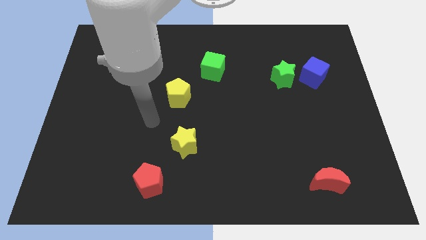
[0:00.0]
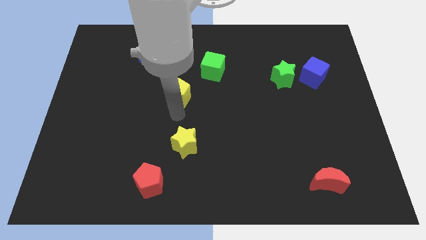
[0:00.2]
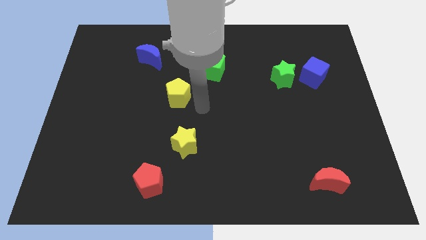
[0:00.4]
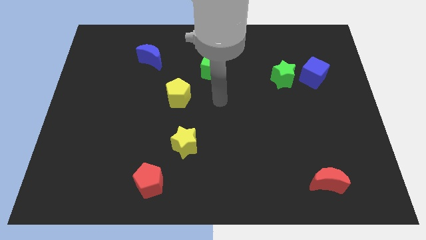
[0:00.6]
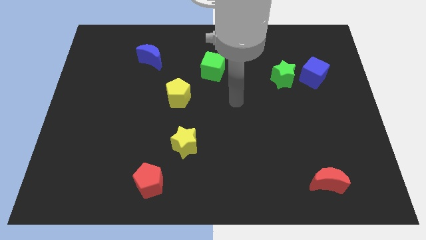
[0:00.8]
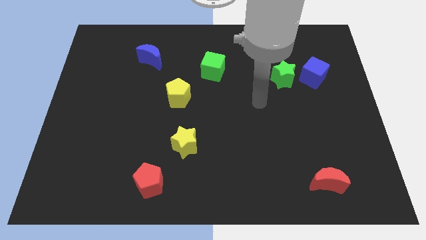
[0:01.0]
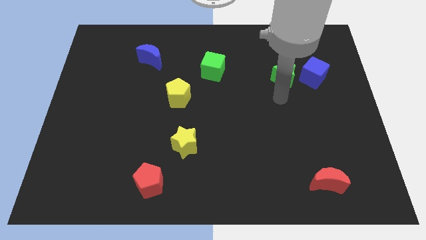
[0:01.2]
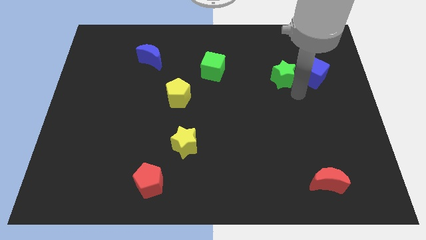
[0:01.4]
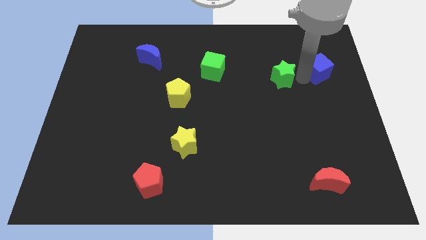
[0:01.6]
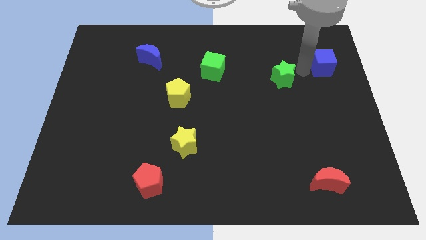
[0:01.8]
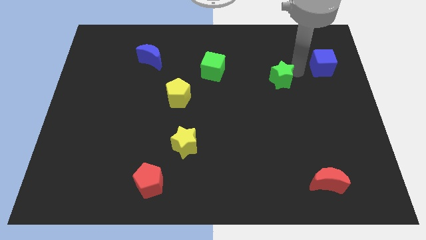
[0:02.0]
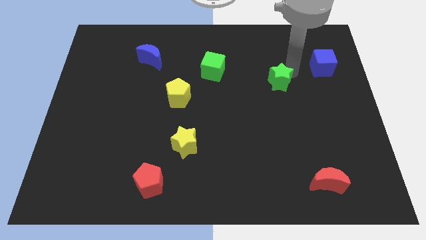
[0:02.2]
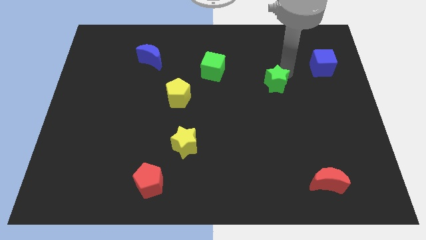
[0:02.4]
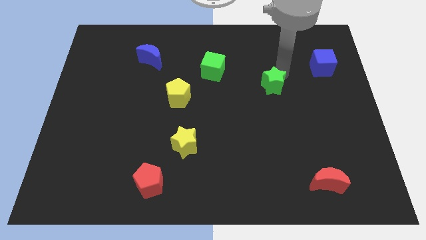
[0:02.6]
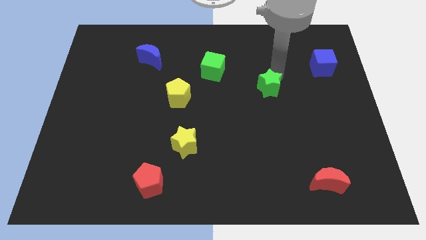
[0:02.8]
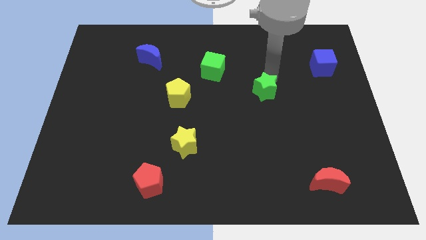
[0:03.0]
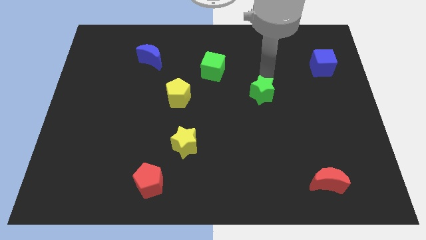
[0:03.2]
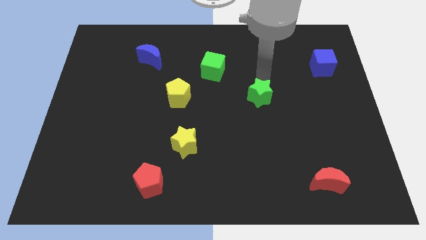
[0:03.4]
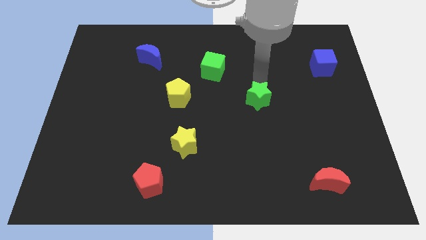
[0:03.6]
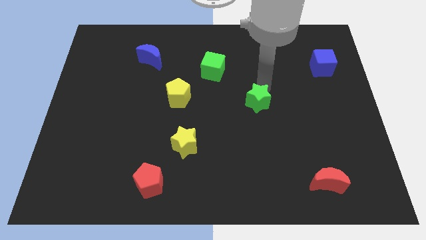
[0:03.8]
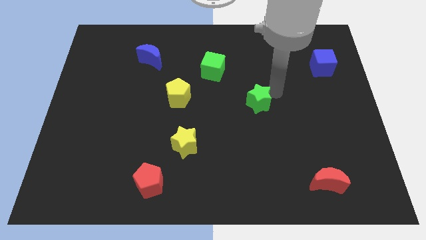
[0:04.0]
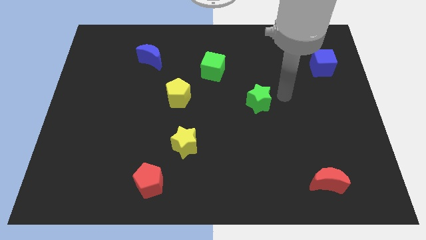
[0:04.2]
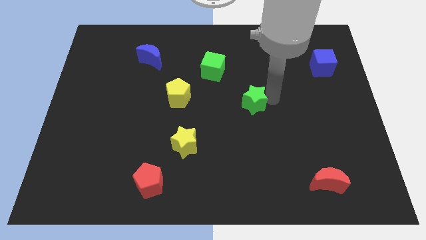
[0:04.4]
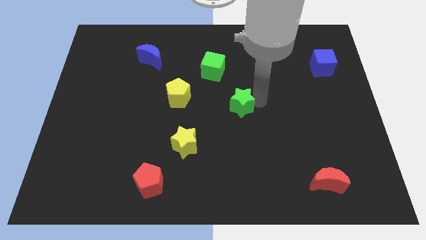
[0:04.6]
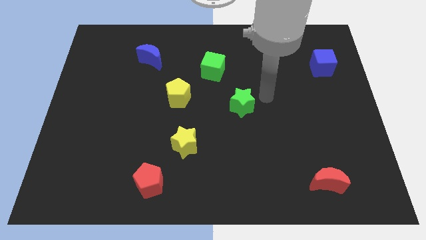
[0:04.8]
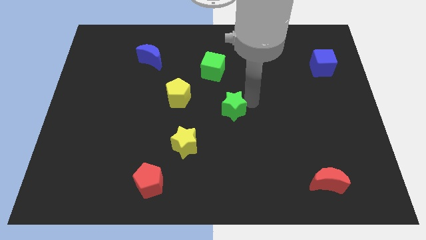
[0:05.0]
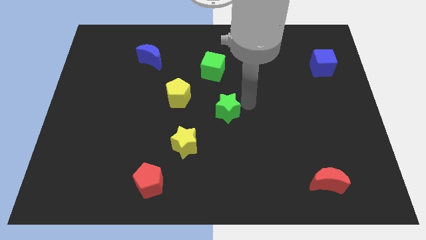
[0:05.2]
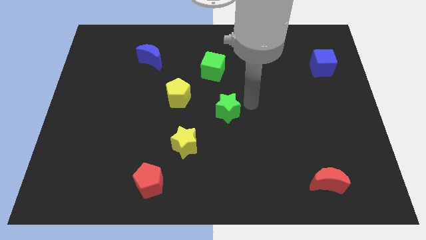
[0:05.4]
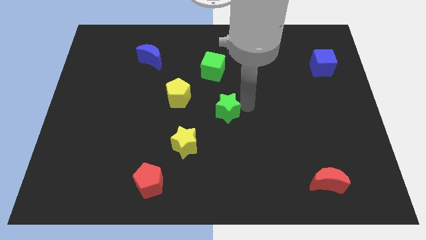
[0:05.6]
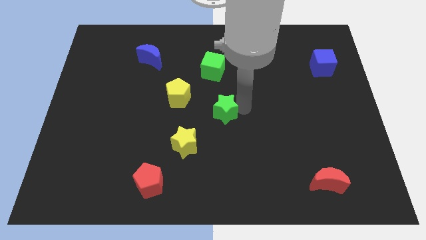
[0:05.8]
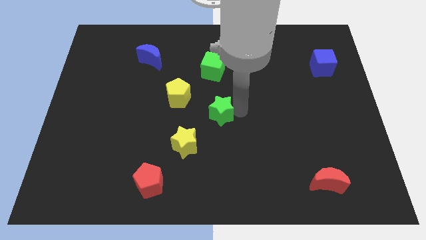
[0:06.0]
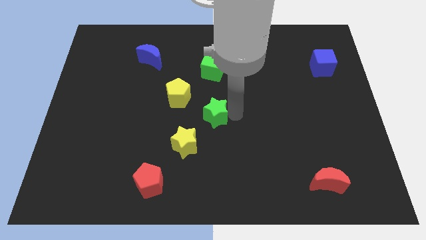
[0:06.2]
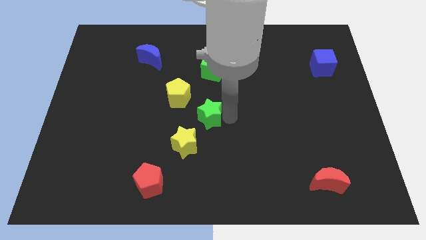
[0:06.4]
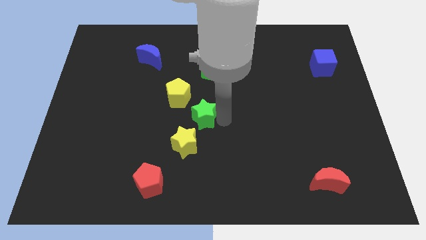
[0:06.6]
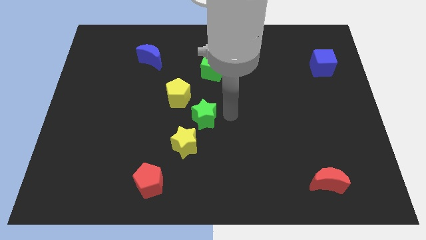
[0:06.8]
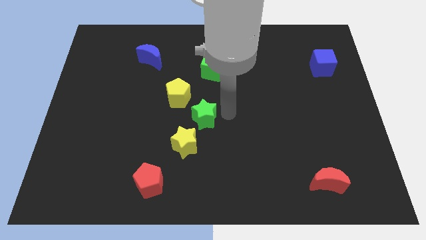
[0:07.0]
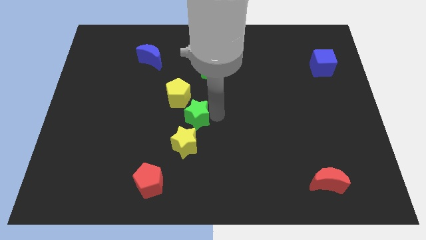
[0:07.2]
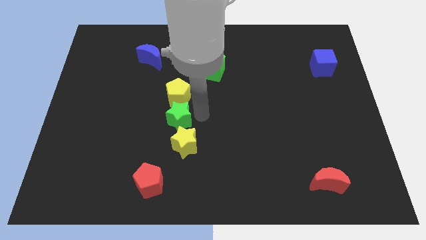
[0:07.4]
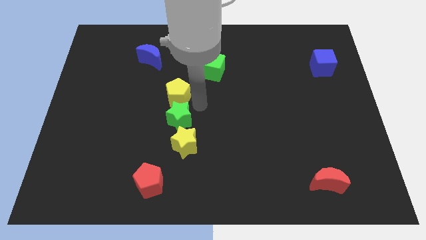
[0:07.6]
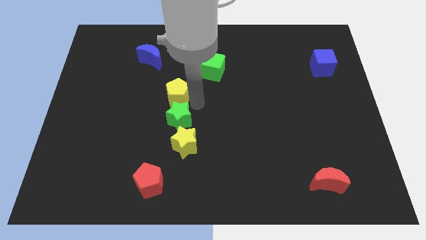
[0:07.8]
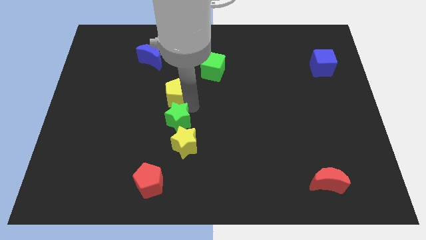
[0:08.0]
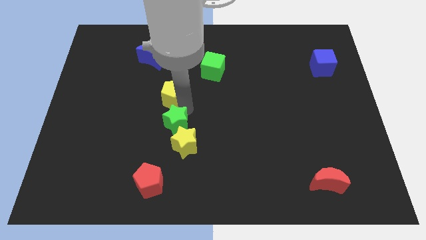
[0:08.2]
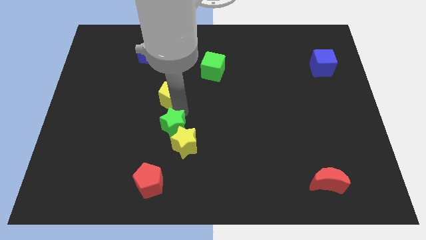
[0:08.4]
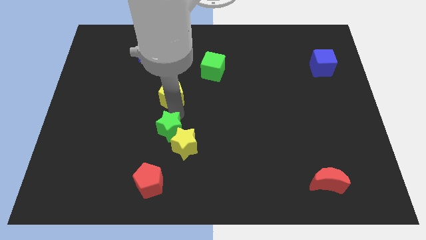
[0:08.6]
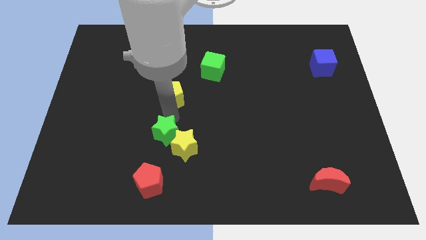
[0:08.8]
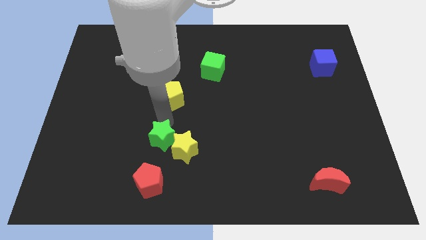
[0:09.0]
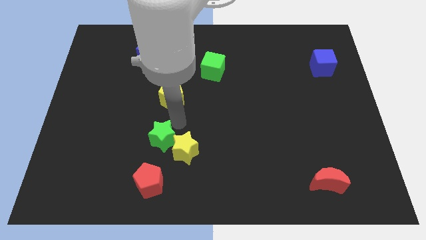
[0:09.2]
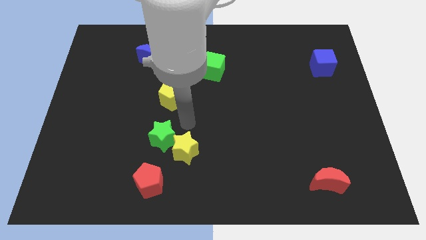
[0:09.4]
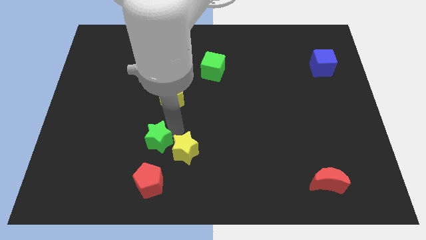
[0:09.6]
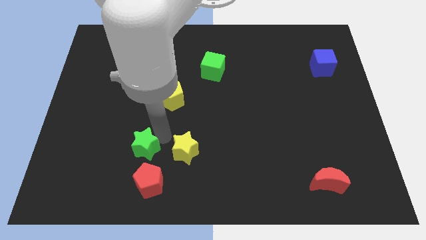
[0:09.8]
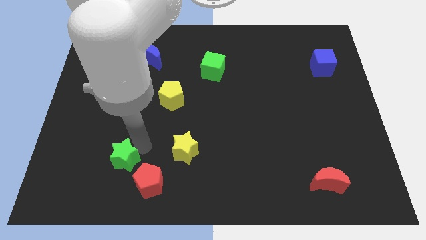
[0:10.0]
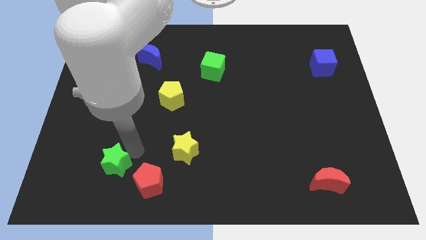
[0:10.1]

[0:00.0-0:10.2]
push the green star left of the red pentagon

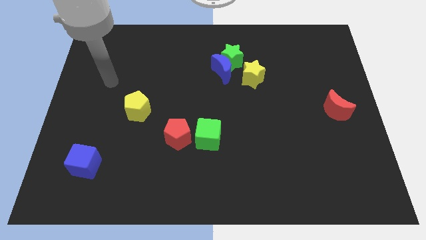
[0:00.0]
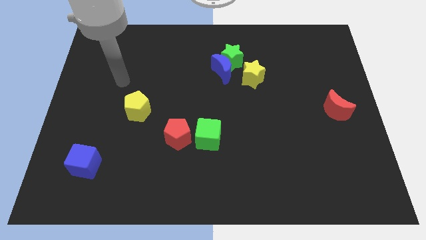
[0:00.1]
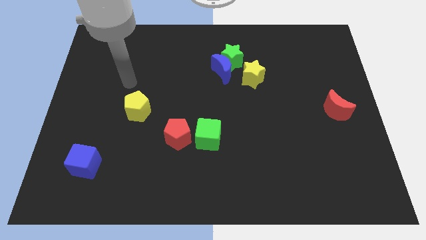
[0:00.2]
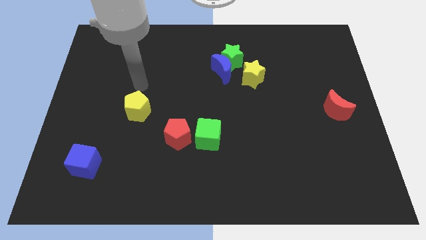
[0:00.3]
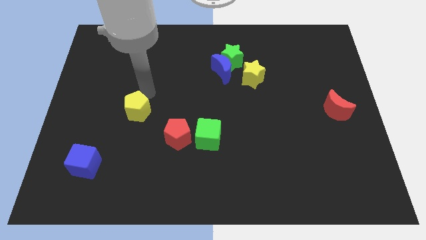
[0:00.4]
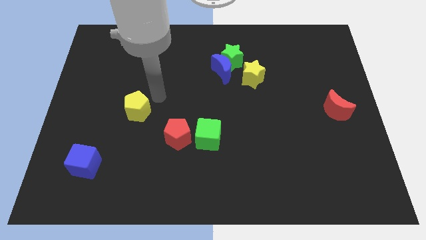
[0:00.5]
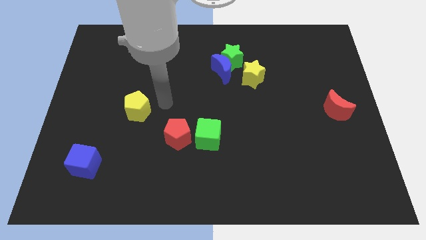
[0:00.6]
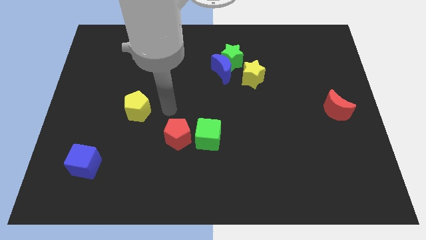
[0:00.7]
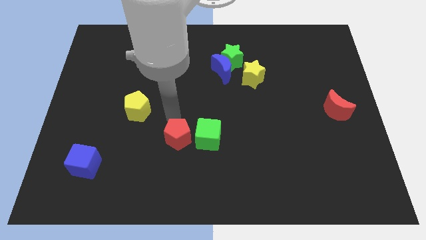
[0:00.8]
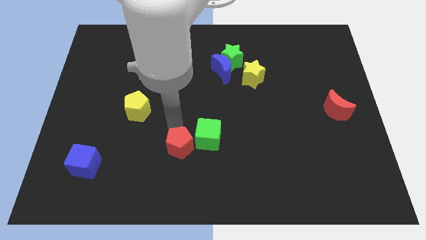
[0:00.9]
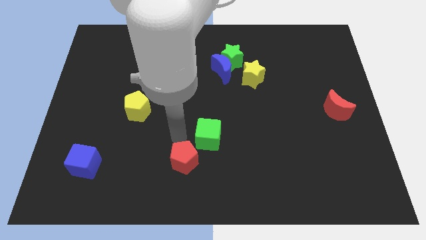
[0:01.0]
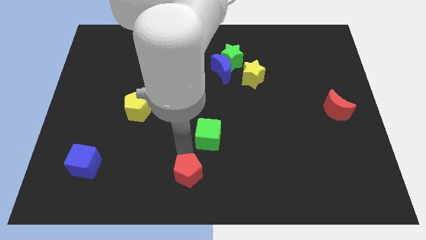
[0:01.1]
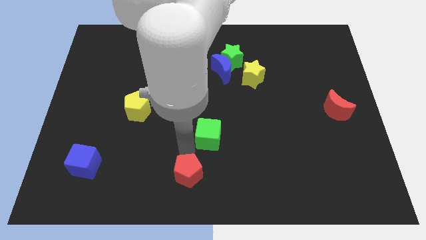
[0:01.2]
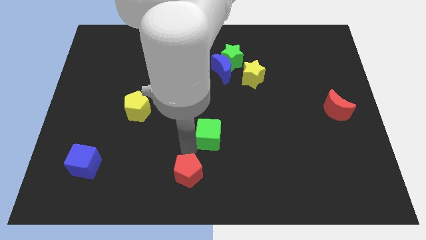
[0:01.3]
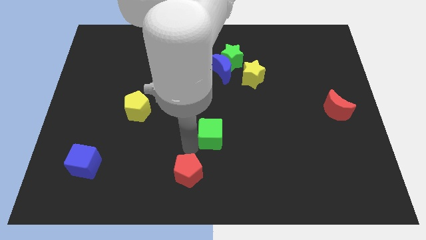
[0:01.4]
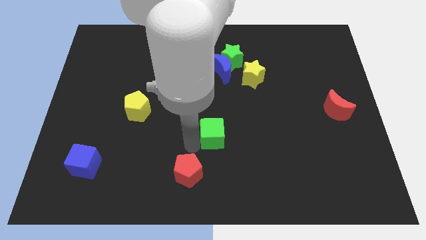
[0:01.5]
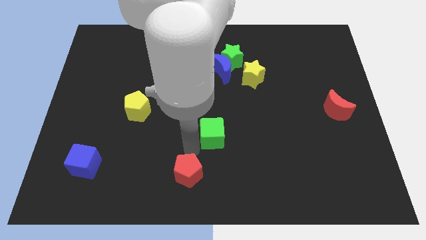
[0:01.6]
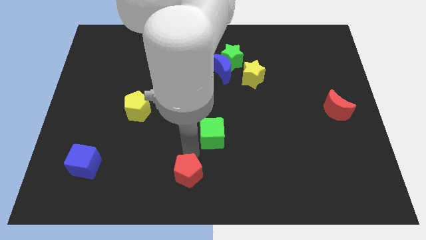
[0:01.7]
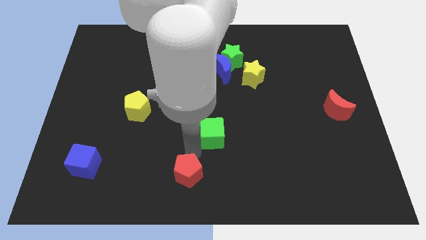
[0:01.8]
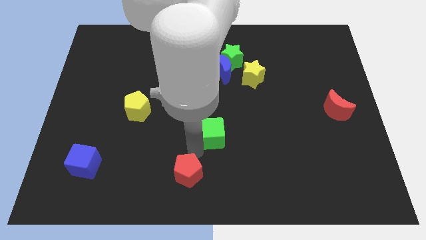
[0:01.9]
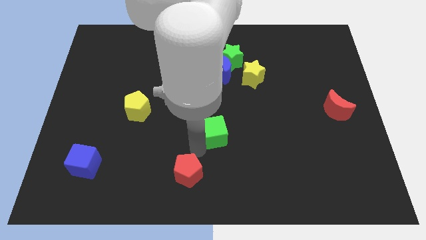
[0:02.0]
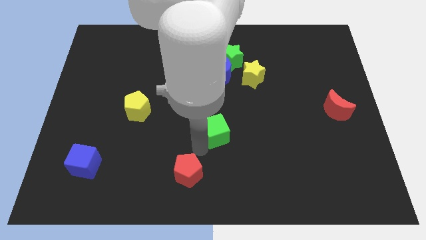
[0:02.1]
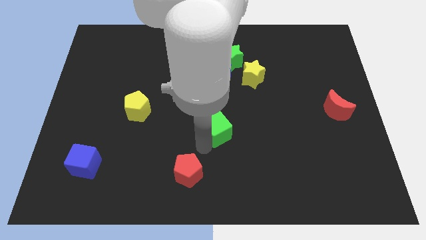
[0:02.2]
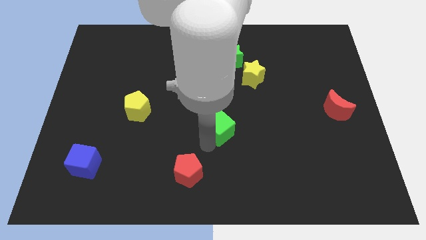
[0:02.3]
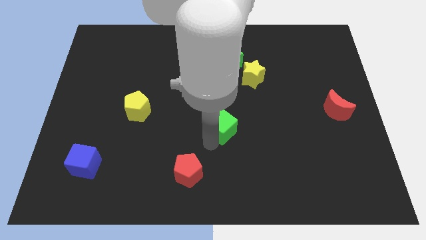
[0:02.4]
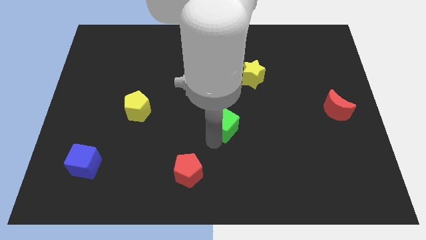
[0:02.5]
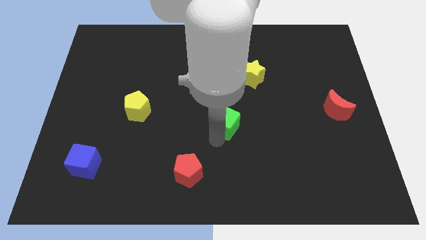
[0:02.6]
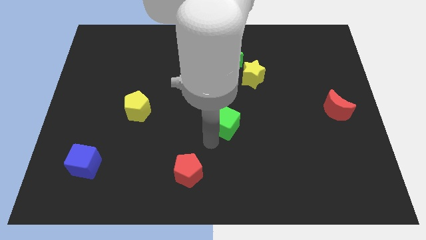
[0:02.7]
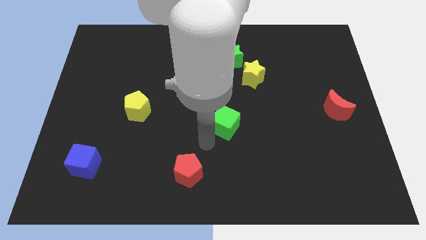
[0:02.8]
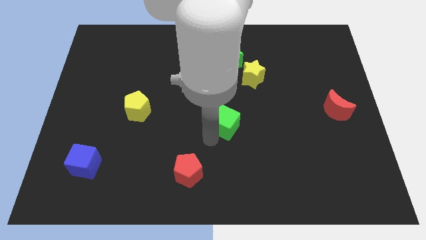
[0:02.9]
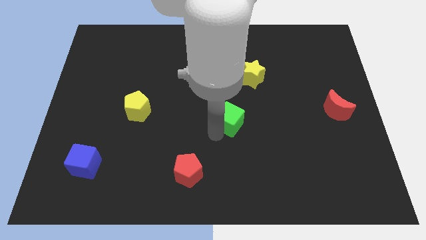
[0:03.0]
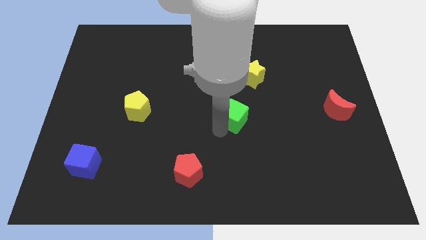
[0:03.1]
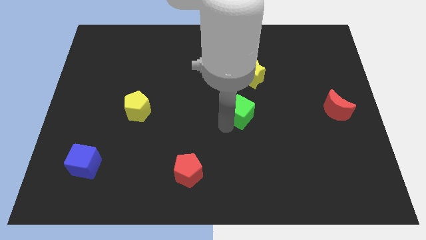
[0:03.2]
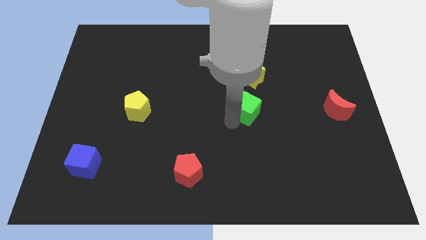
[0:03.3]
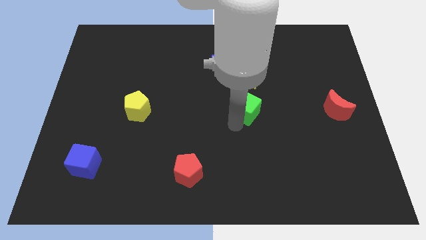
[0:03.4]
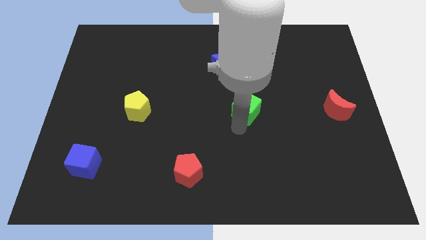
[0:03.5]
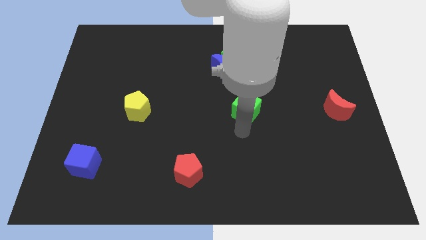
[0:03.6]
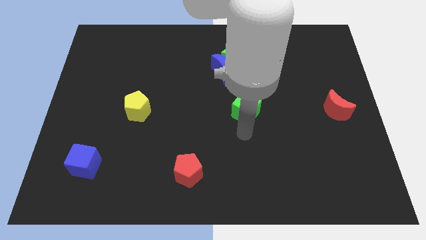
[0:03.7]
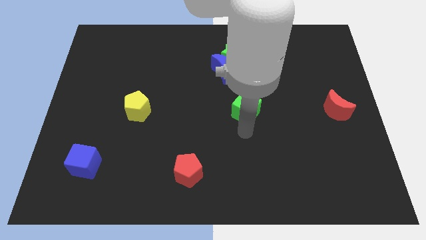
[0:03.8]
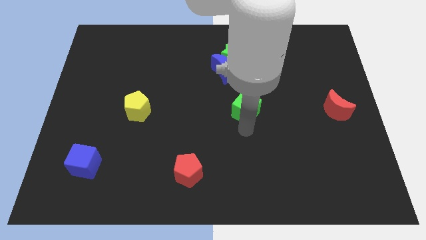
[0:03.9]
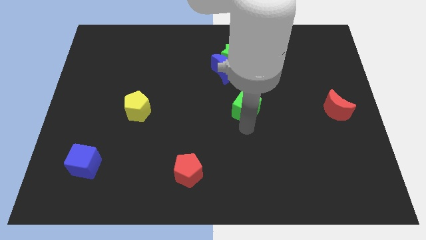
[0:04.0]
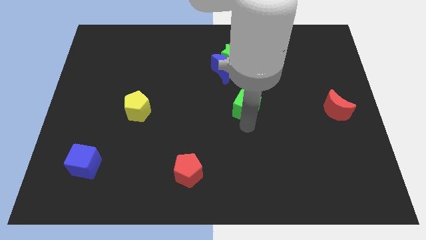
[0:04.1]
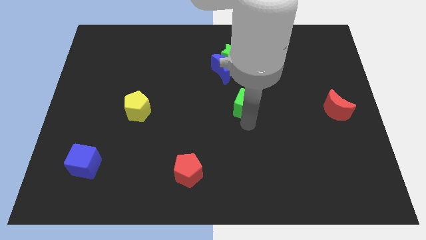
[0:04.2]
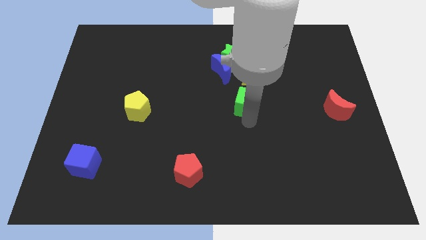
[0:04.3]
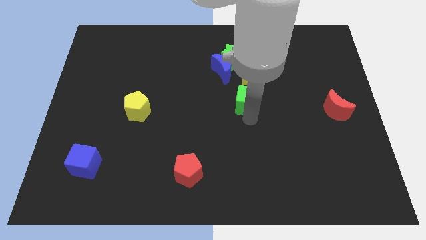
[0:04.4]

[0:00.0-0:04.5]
slide the green cube diagonally down and to the right of the blue moon
